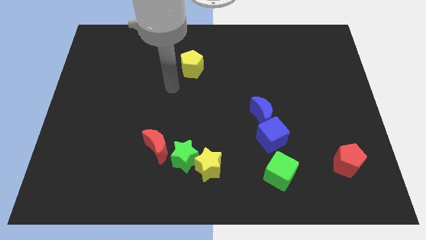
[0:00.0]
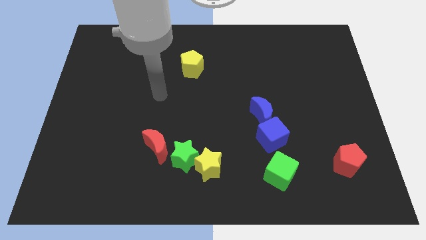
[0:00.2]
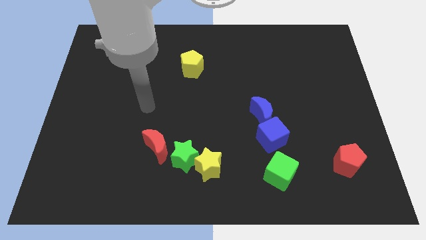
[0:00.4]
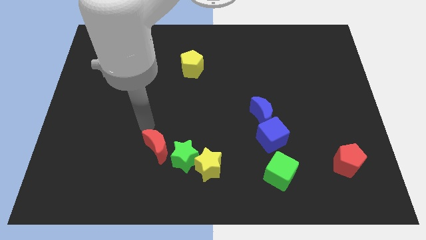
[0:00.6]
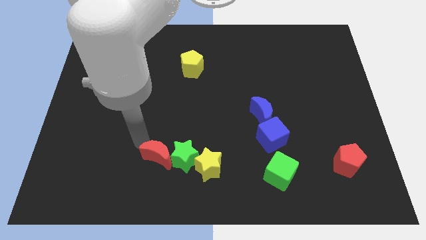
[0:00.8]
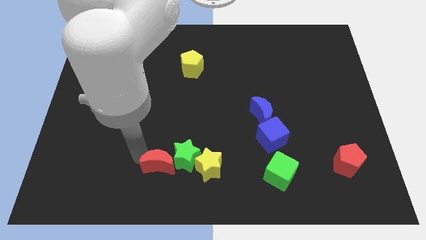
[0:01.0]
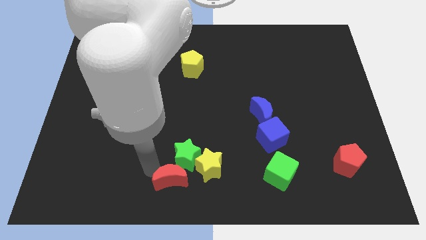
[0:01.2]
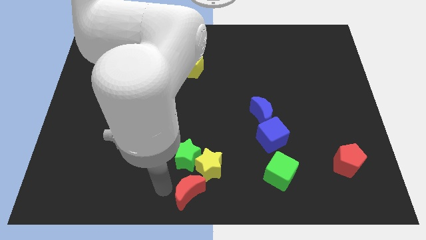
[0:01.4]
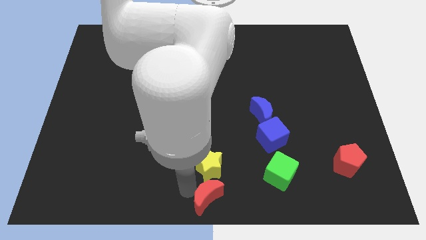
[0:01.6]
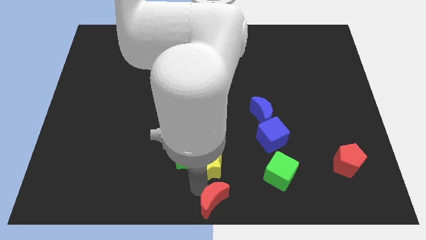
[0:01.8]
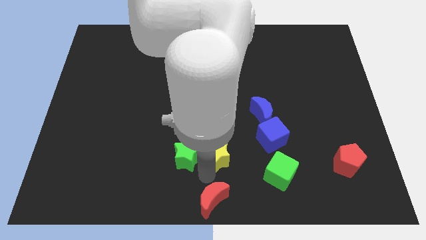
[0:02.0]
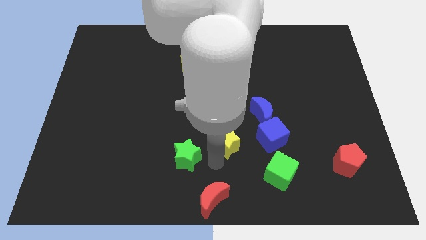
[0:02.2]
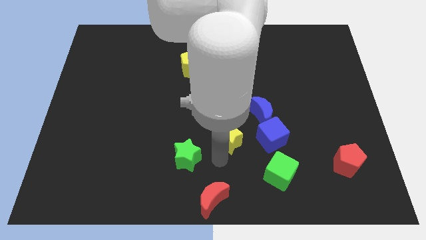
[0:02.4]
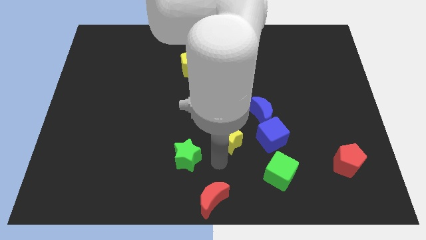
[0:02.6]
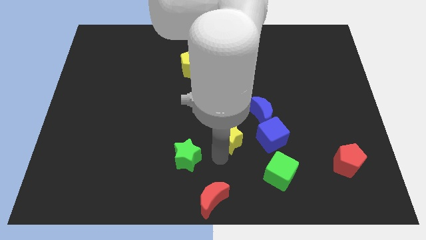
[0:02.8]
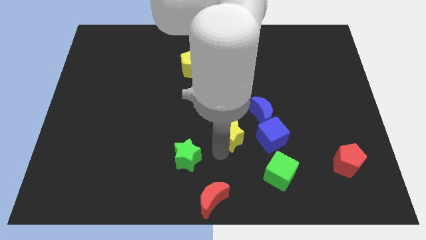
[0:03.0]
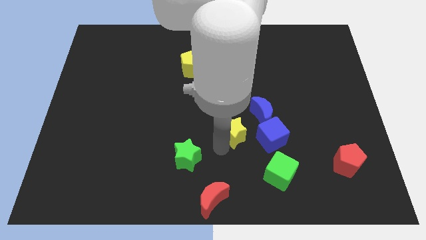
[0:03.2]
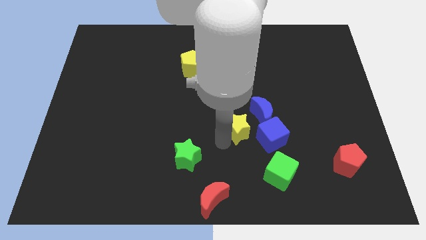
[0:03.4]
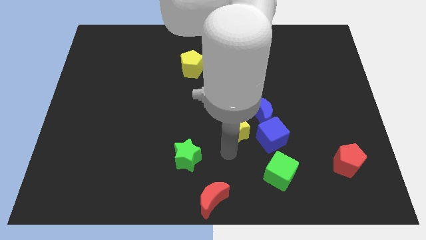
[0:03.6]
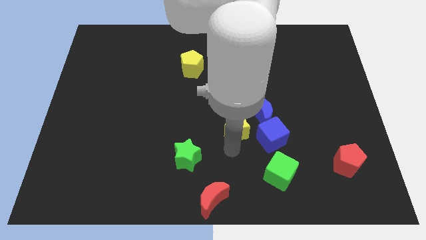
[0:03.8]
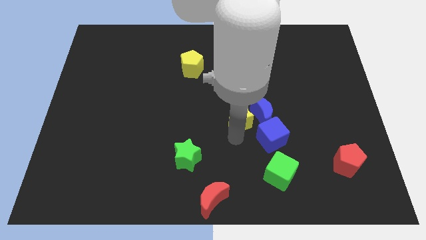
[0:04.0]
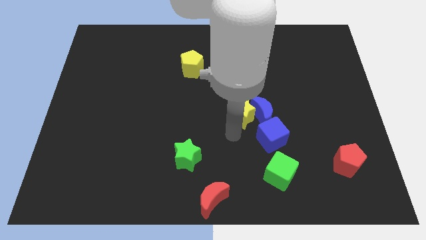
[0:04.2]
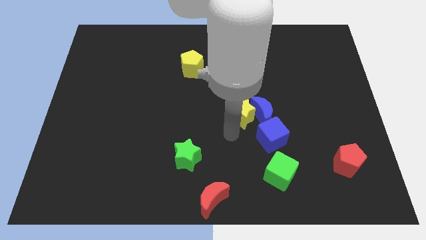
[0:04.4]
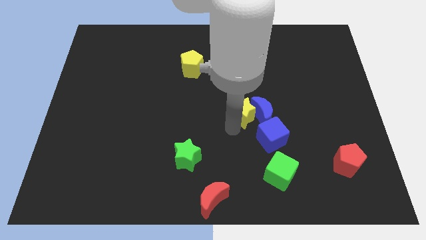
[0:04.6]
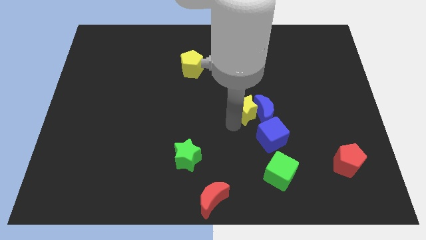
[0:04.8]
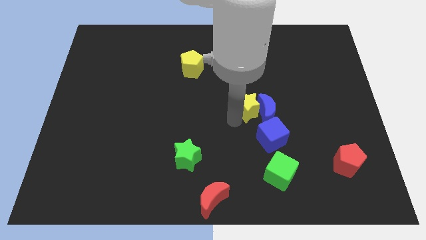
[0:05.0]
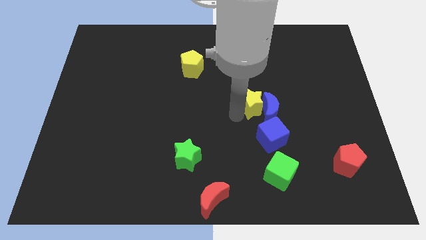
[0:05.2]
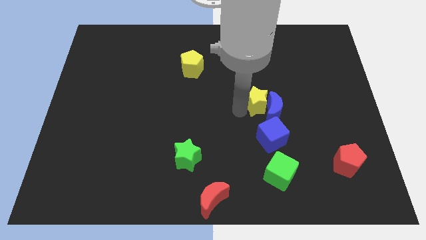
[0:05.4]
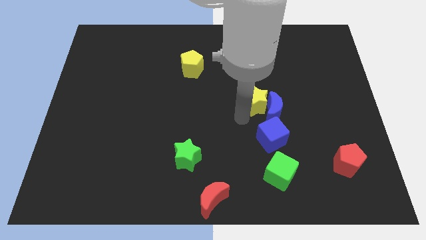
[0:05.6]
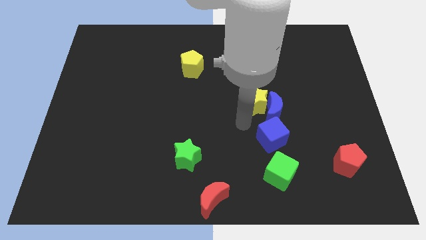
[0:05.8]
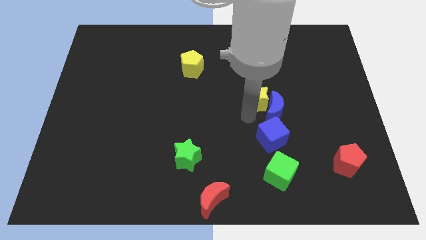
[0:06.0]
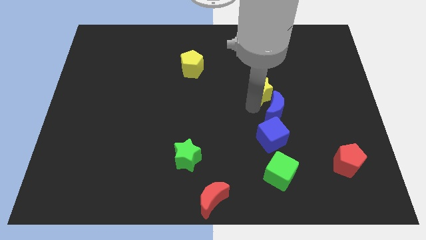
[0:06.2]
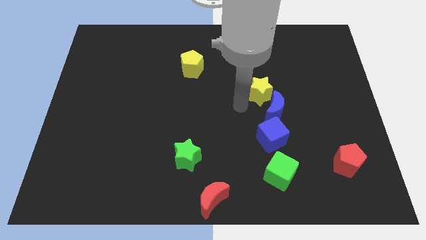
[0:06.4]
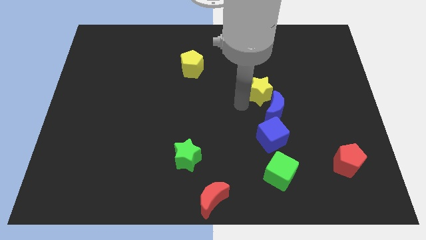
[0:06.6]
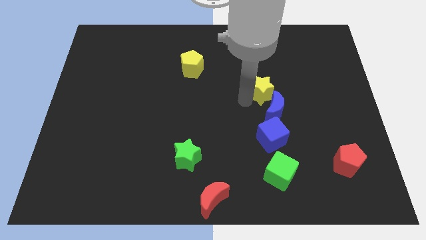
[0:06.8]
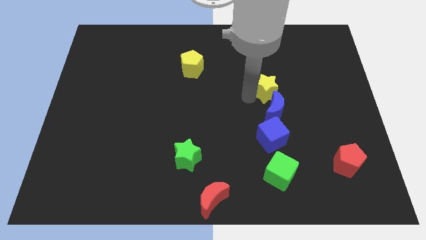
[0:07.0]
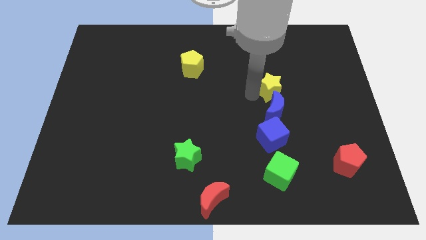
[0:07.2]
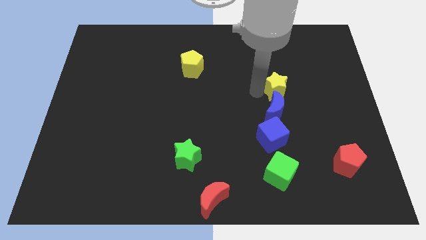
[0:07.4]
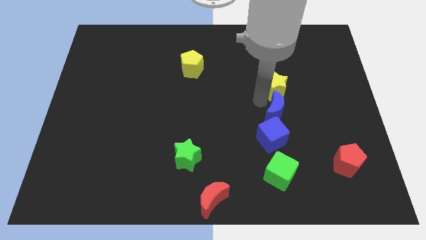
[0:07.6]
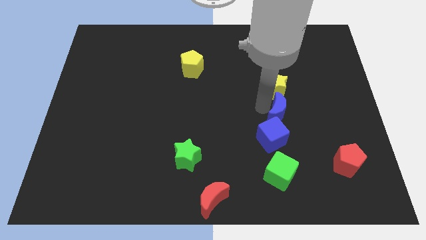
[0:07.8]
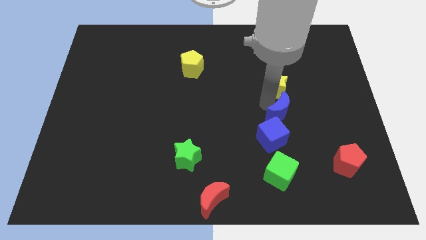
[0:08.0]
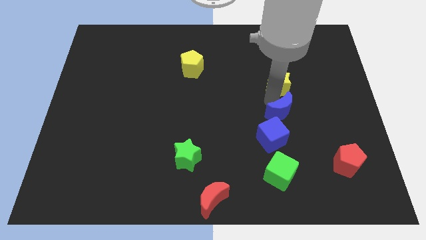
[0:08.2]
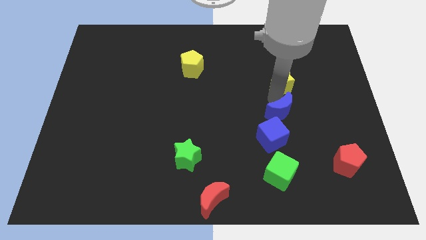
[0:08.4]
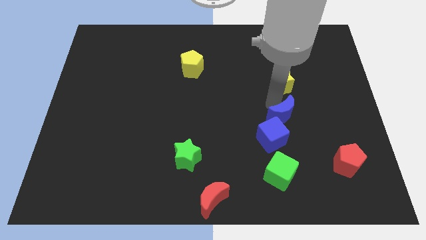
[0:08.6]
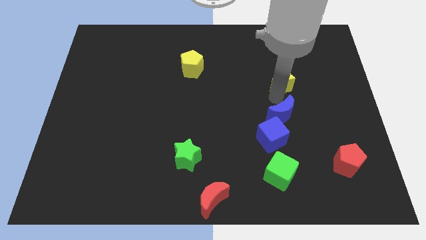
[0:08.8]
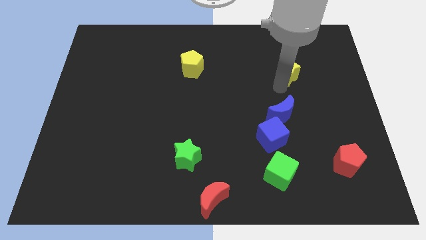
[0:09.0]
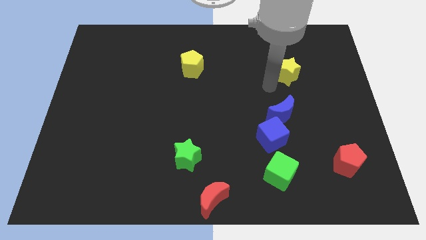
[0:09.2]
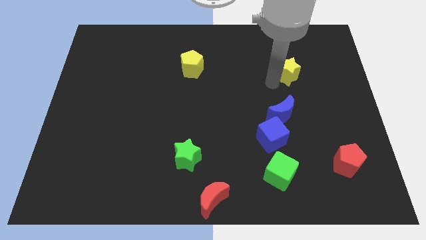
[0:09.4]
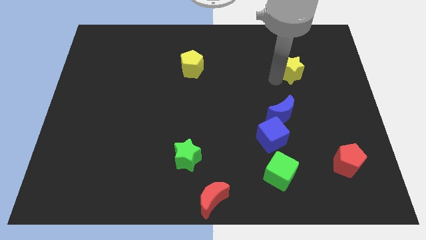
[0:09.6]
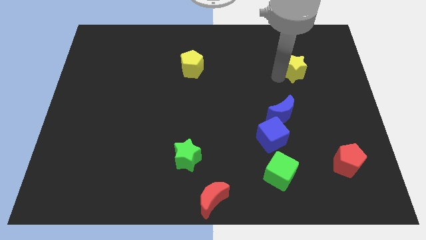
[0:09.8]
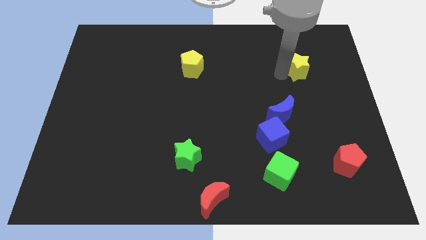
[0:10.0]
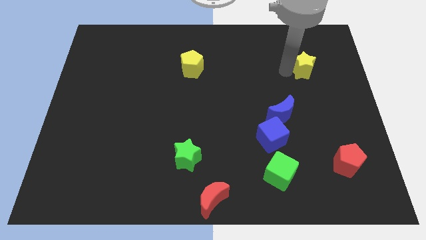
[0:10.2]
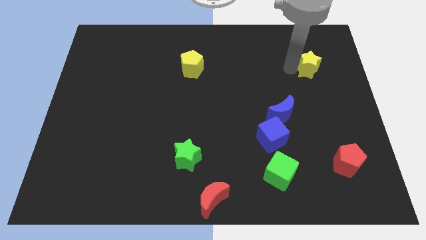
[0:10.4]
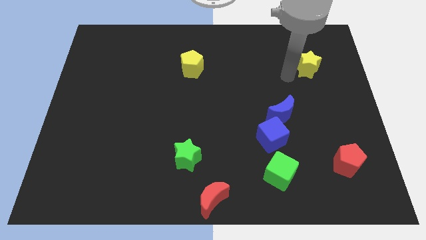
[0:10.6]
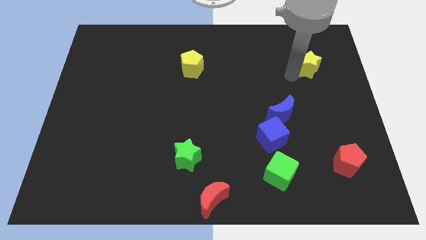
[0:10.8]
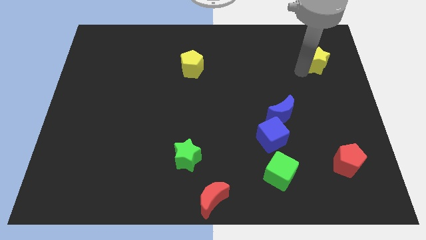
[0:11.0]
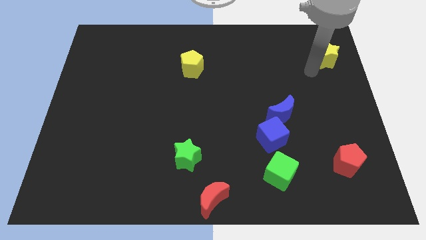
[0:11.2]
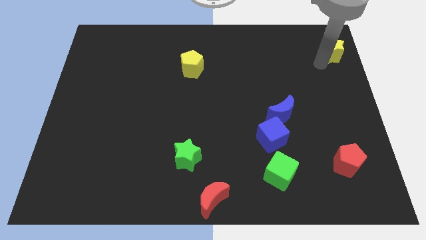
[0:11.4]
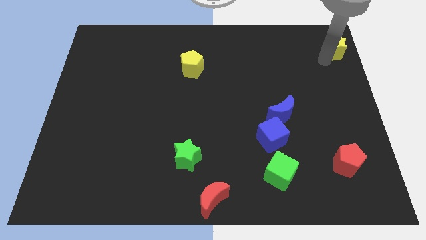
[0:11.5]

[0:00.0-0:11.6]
slide the yellow star to the top right
